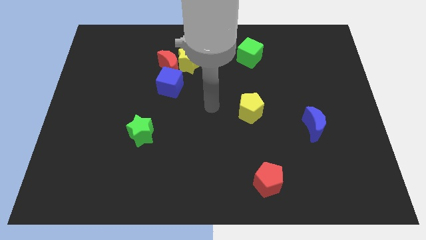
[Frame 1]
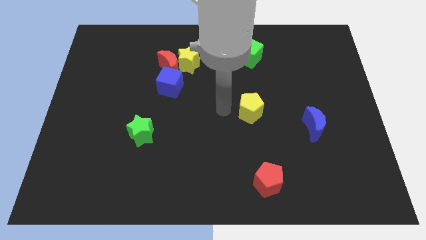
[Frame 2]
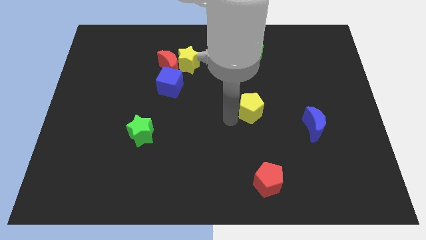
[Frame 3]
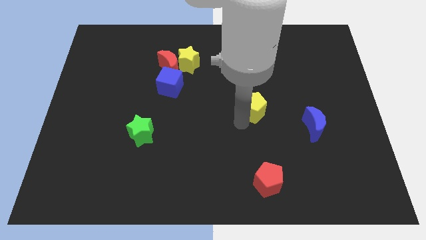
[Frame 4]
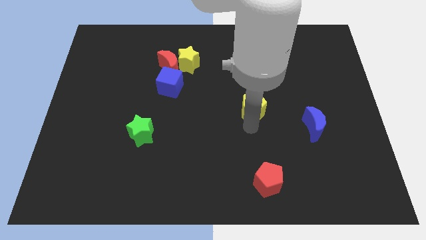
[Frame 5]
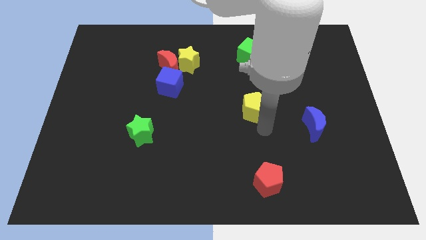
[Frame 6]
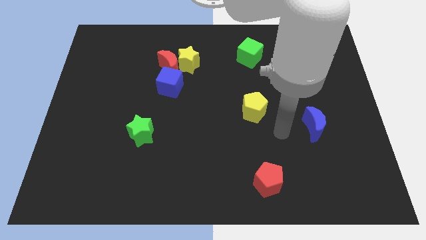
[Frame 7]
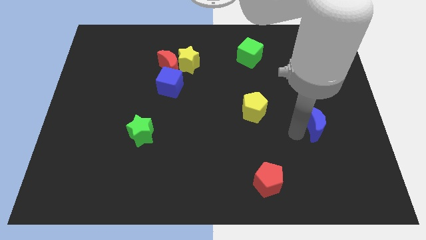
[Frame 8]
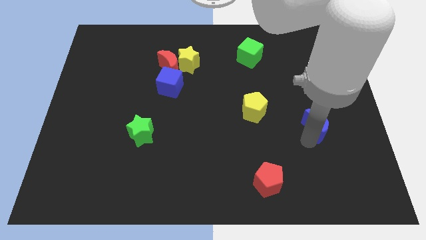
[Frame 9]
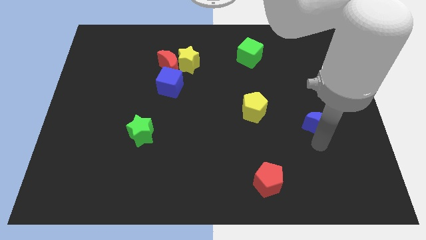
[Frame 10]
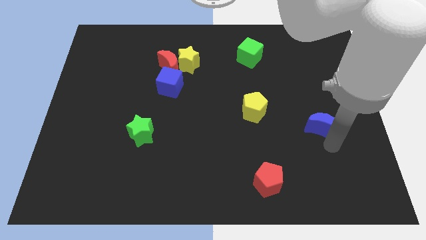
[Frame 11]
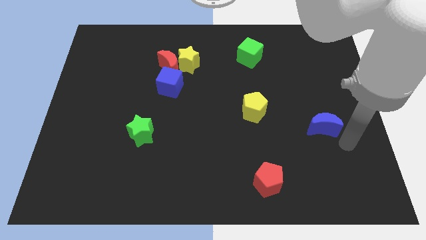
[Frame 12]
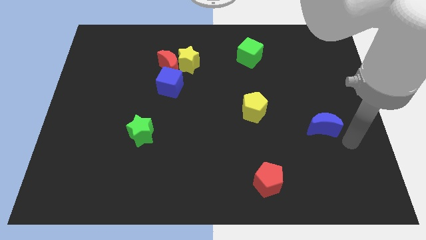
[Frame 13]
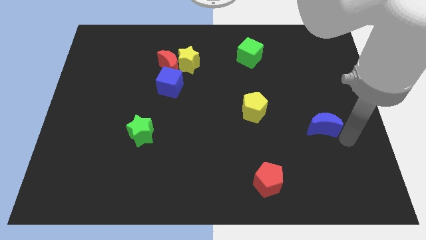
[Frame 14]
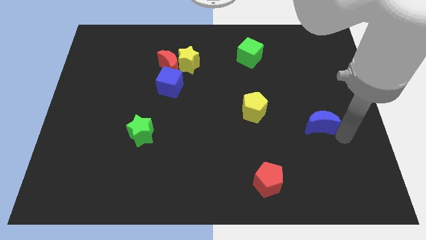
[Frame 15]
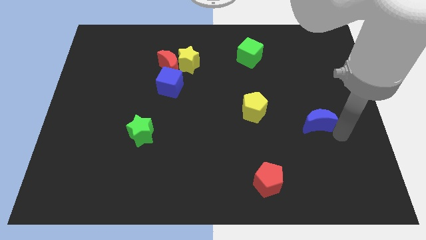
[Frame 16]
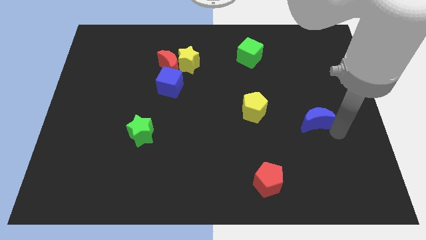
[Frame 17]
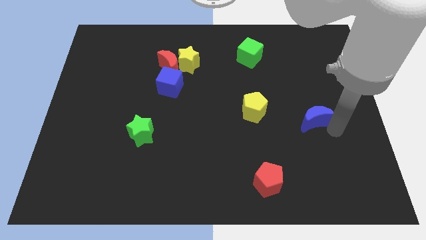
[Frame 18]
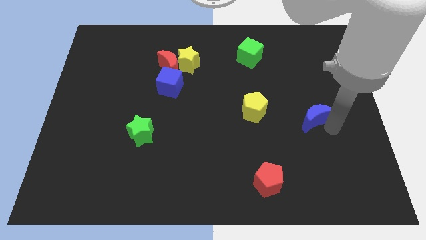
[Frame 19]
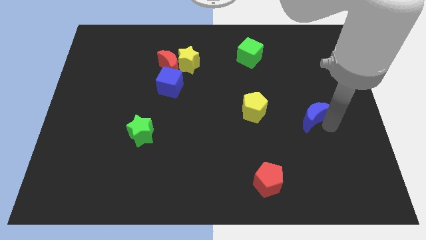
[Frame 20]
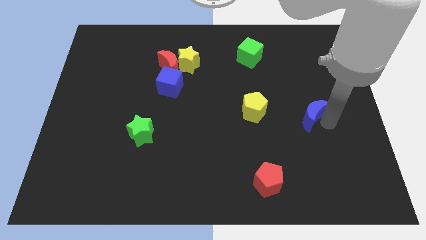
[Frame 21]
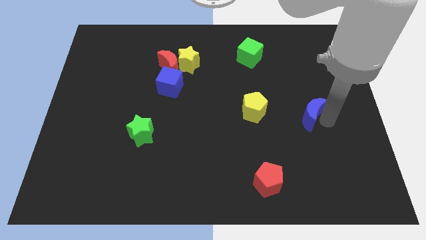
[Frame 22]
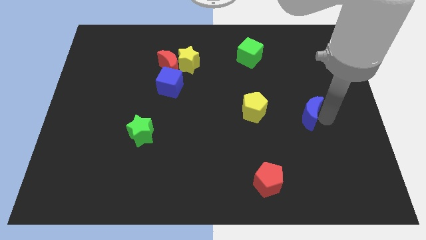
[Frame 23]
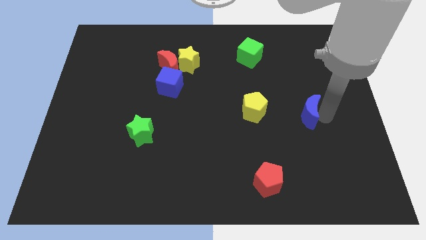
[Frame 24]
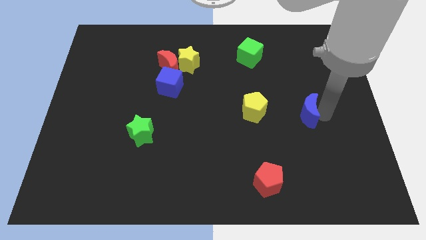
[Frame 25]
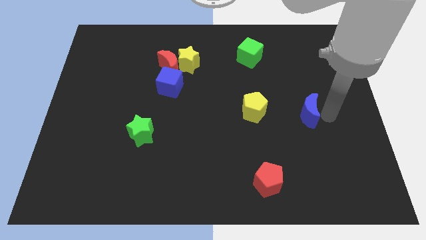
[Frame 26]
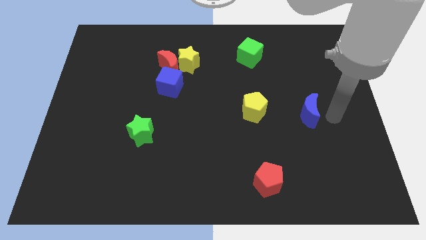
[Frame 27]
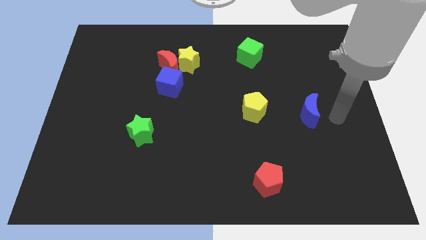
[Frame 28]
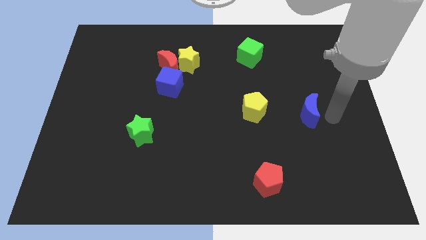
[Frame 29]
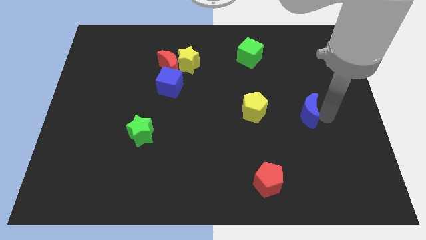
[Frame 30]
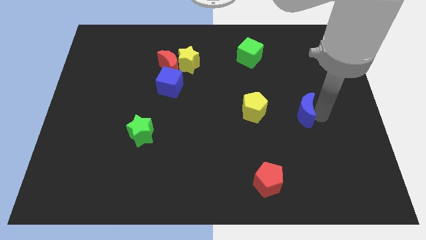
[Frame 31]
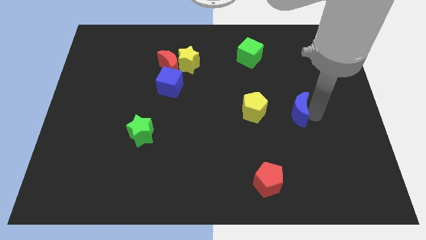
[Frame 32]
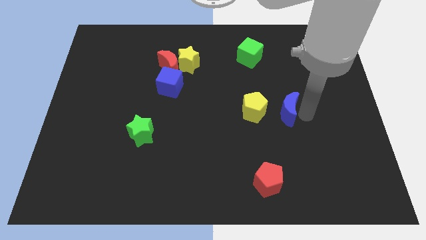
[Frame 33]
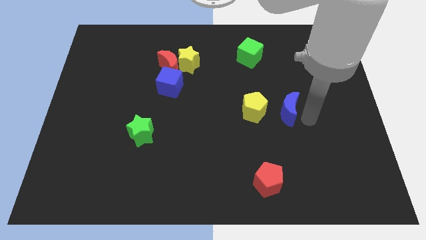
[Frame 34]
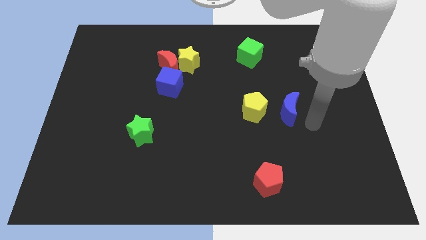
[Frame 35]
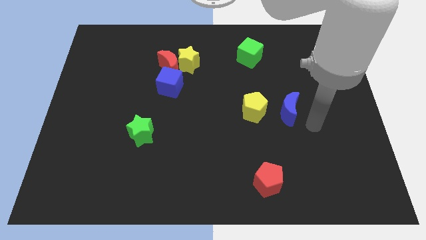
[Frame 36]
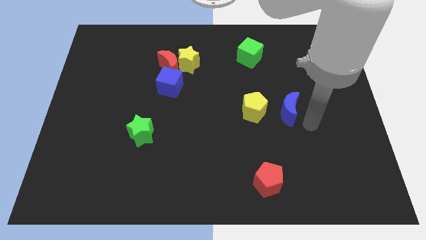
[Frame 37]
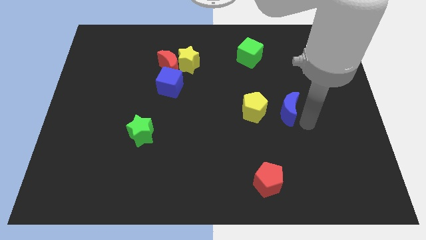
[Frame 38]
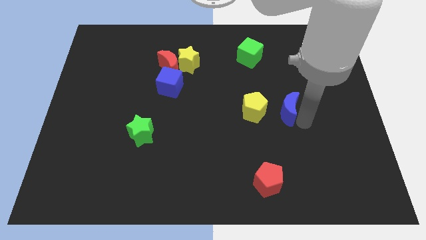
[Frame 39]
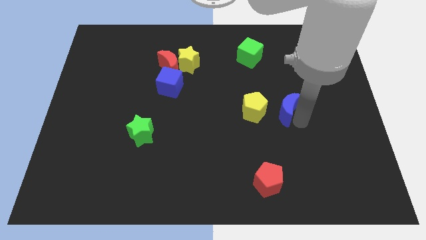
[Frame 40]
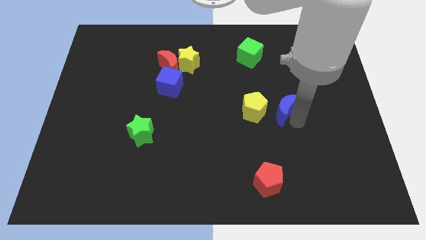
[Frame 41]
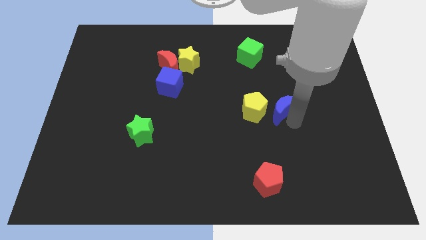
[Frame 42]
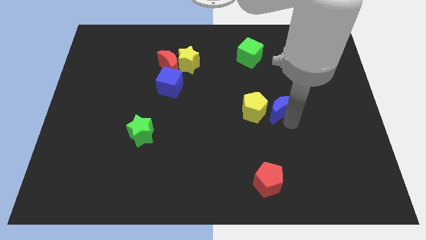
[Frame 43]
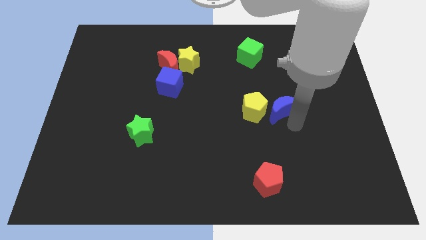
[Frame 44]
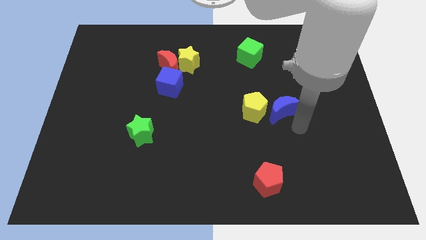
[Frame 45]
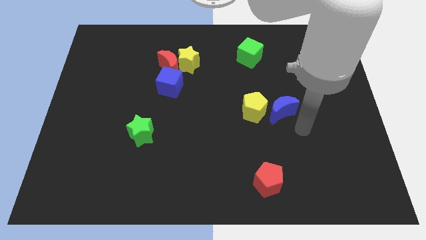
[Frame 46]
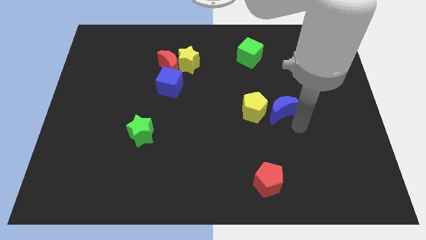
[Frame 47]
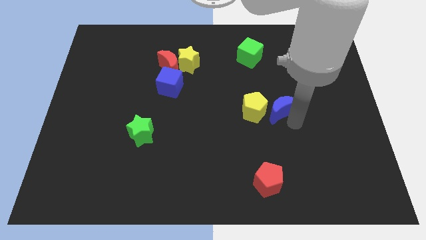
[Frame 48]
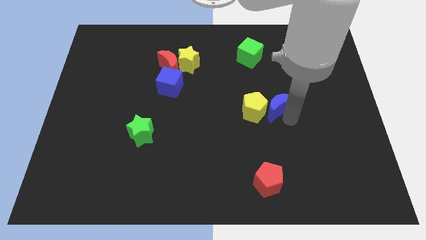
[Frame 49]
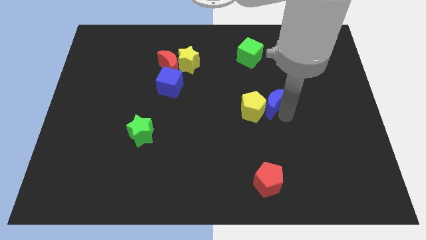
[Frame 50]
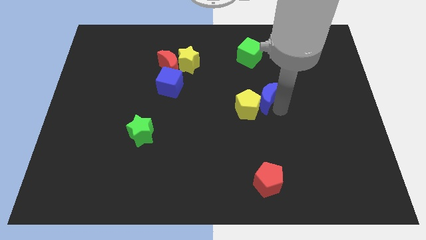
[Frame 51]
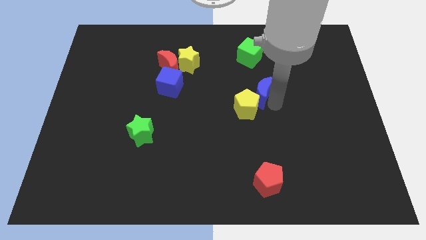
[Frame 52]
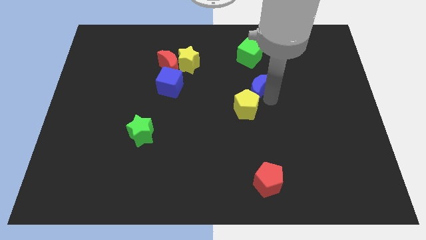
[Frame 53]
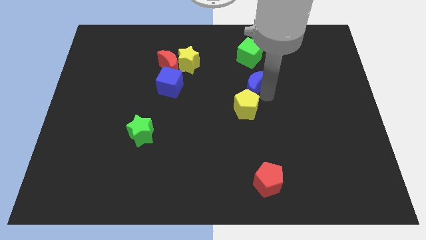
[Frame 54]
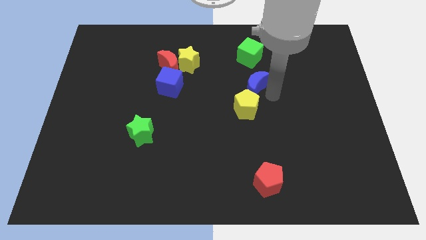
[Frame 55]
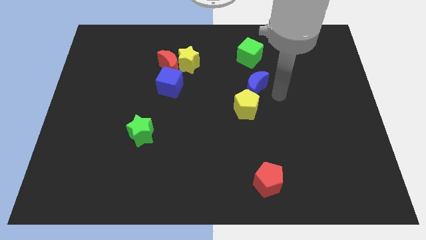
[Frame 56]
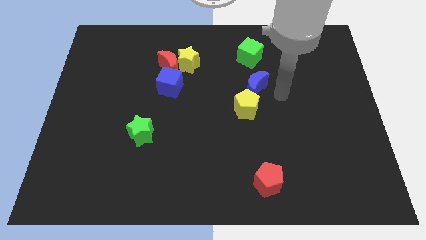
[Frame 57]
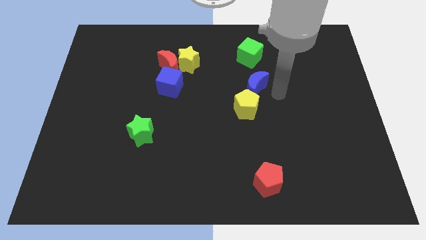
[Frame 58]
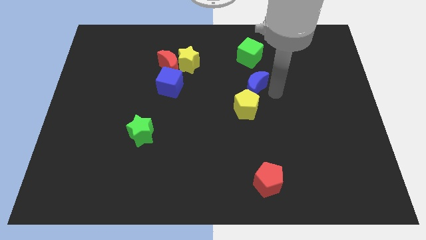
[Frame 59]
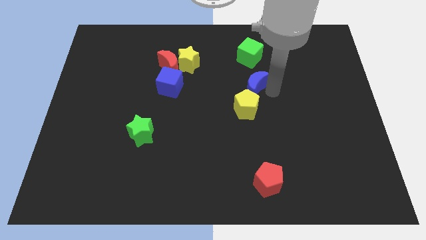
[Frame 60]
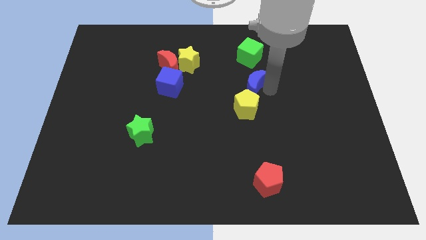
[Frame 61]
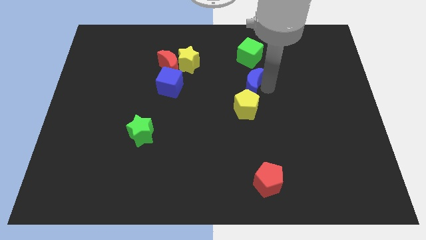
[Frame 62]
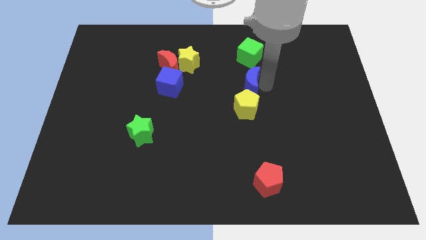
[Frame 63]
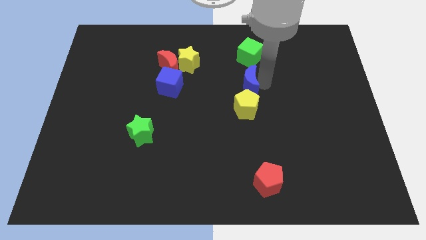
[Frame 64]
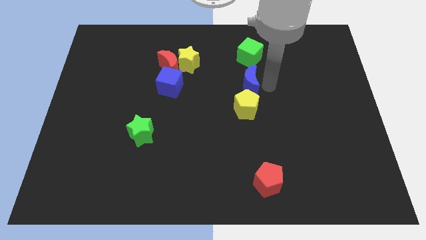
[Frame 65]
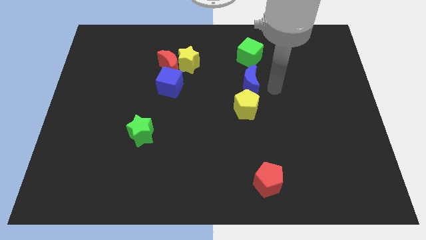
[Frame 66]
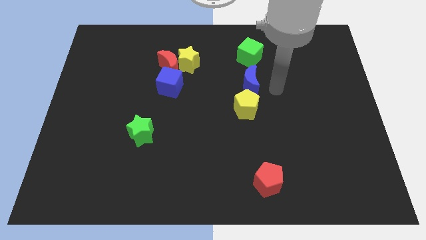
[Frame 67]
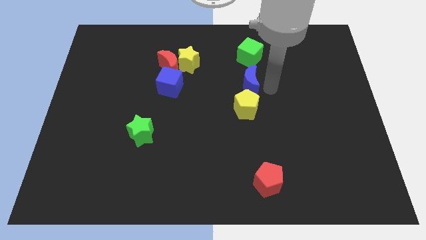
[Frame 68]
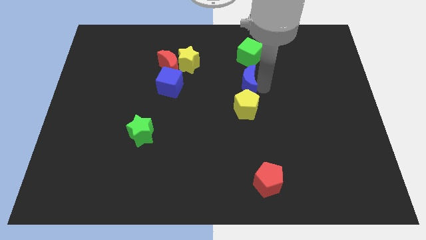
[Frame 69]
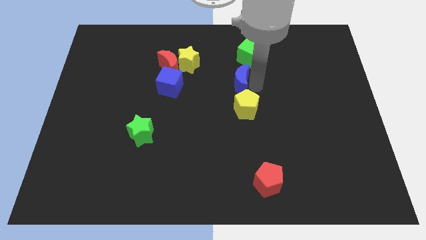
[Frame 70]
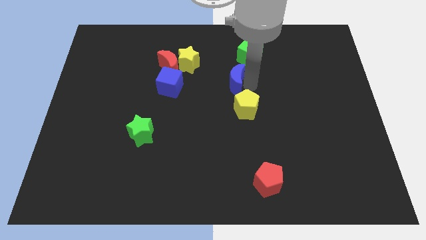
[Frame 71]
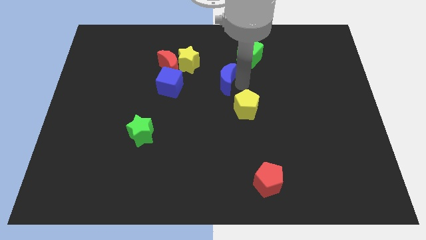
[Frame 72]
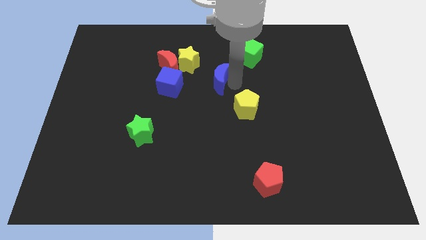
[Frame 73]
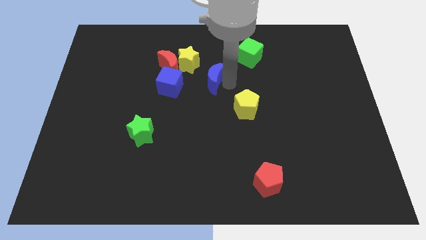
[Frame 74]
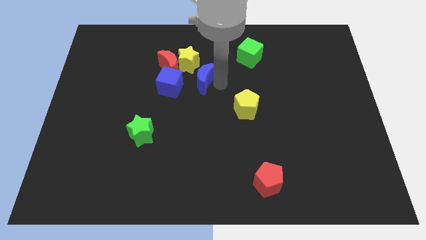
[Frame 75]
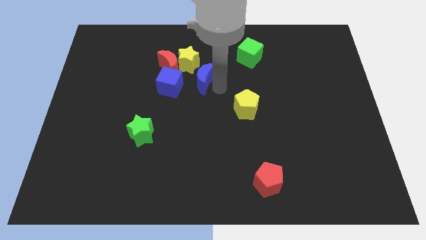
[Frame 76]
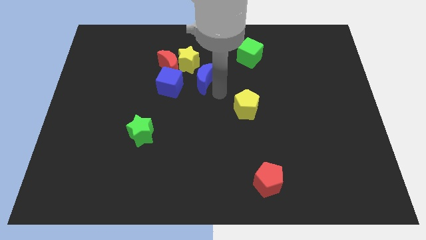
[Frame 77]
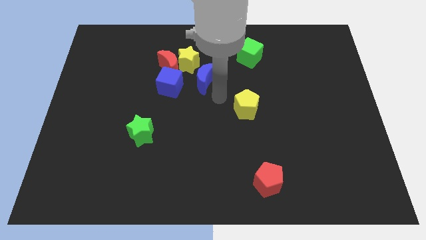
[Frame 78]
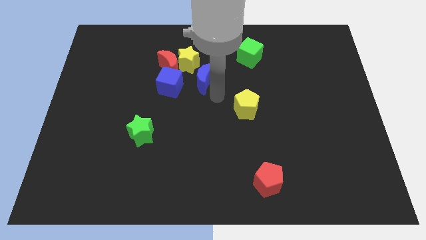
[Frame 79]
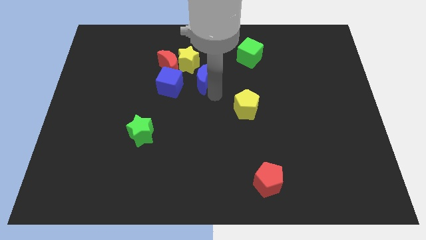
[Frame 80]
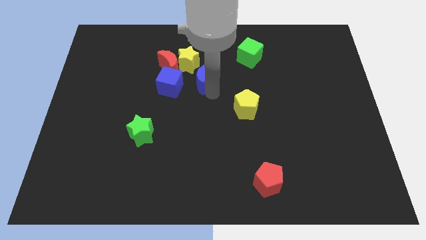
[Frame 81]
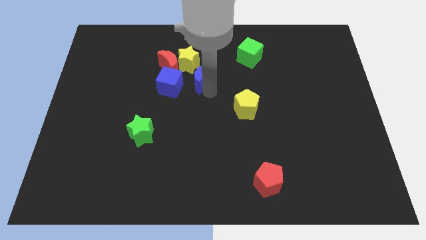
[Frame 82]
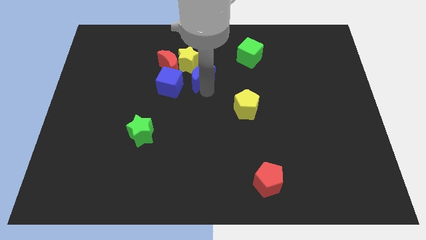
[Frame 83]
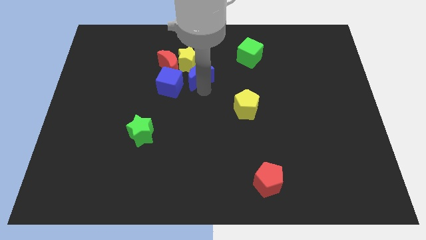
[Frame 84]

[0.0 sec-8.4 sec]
push the blue moon to the yellow star
